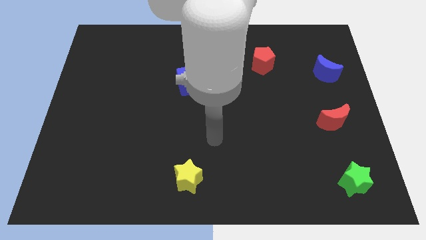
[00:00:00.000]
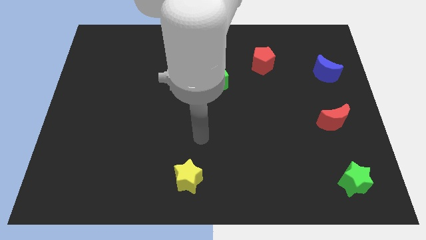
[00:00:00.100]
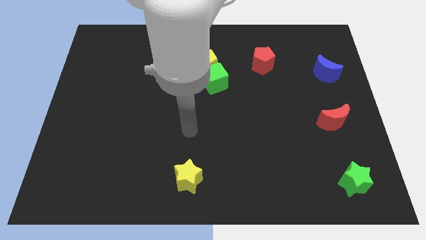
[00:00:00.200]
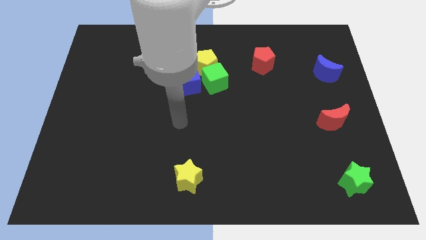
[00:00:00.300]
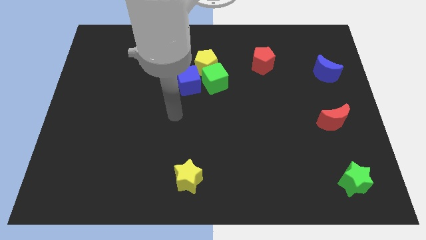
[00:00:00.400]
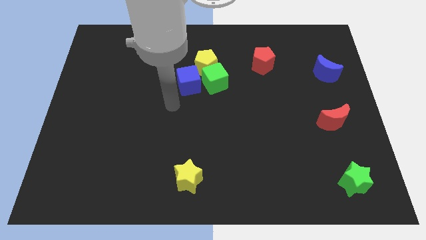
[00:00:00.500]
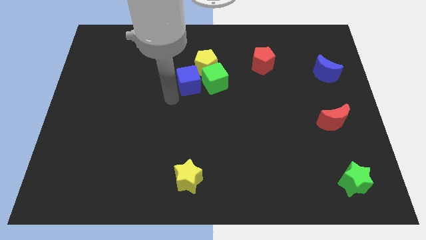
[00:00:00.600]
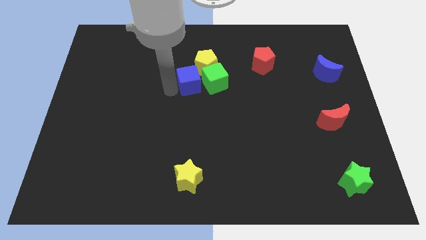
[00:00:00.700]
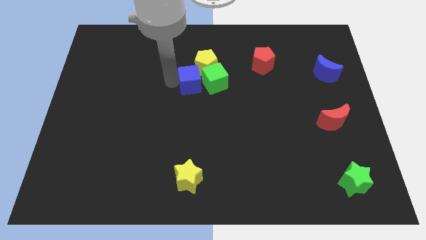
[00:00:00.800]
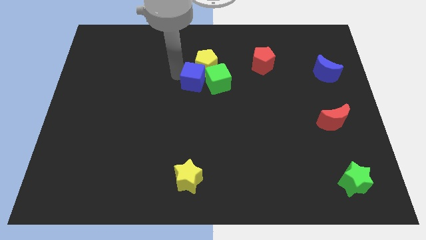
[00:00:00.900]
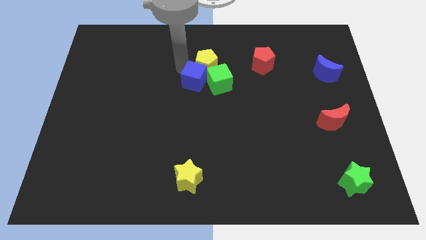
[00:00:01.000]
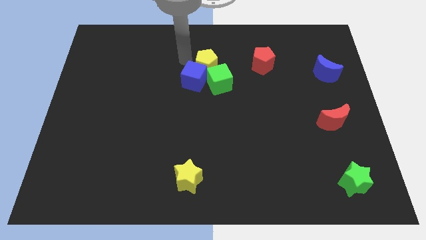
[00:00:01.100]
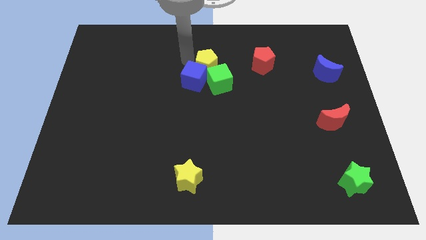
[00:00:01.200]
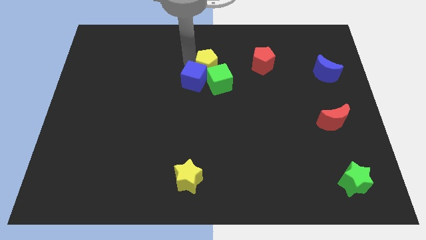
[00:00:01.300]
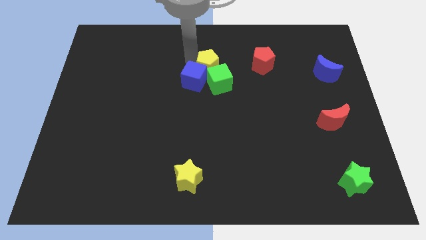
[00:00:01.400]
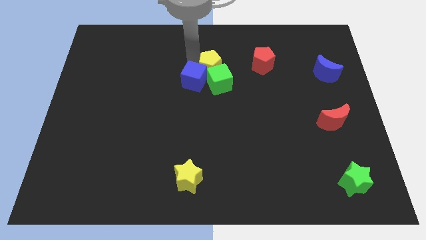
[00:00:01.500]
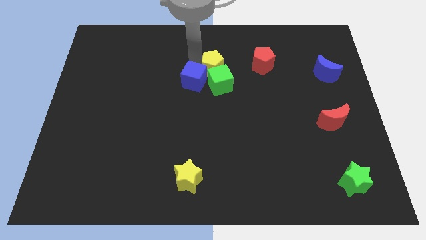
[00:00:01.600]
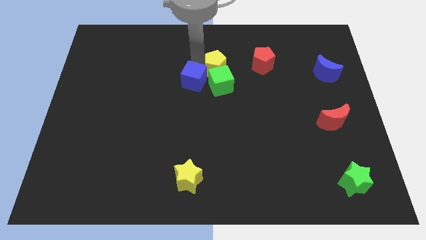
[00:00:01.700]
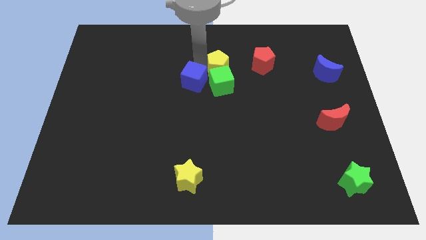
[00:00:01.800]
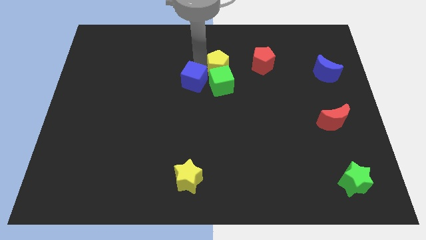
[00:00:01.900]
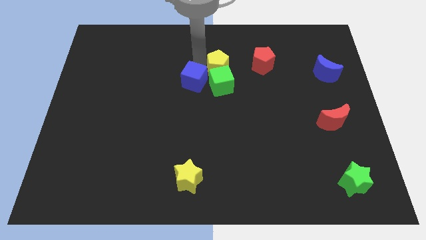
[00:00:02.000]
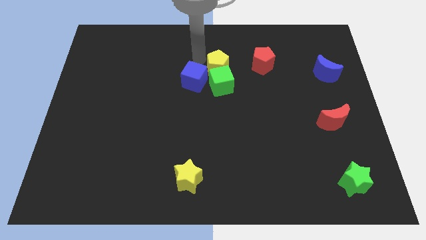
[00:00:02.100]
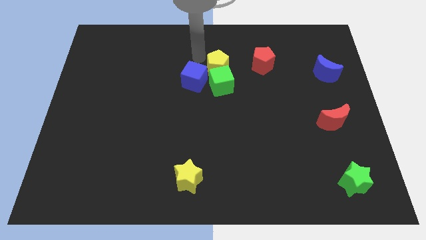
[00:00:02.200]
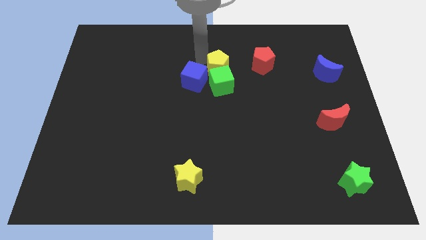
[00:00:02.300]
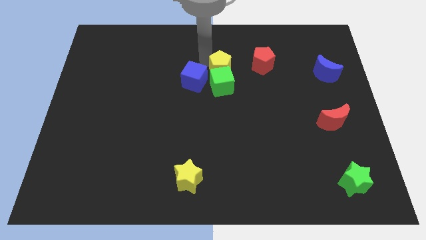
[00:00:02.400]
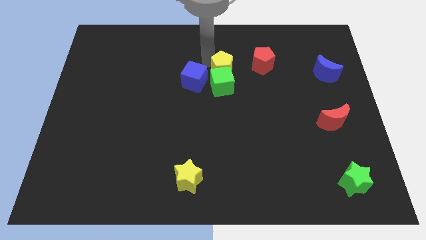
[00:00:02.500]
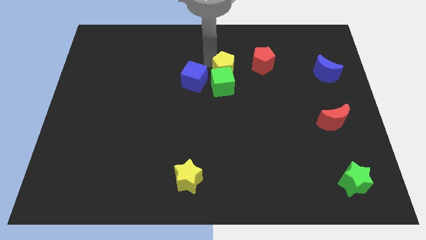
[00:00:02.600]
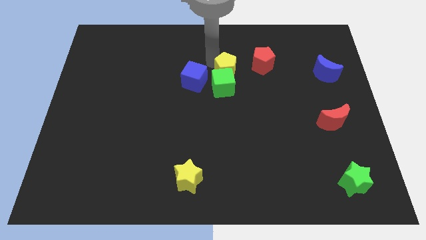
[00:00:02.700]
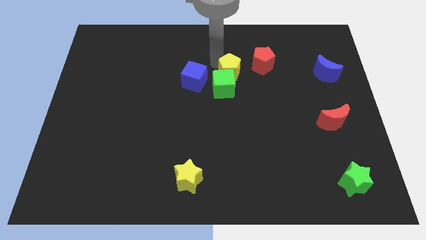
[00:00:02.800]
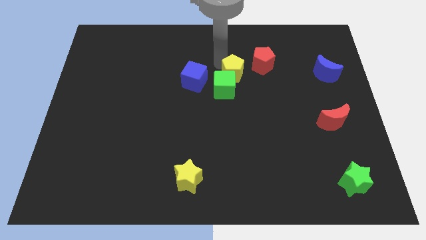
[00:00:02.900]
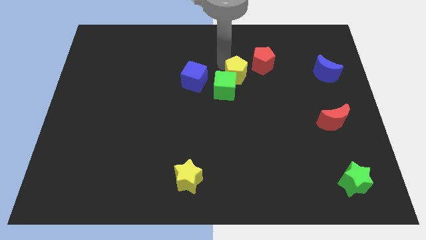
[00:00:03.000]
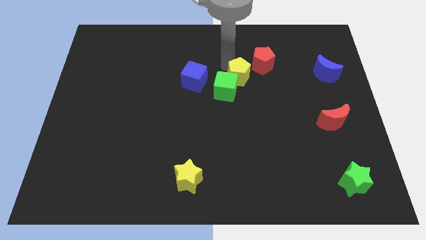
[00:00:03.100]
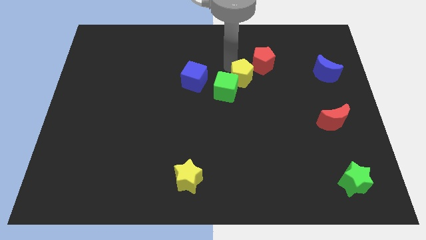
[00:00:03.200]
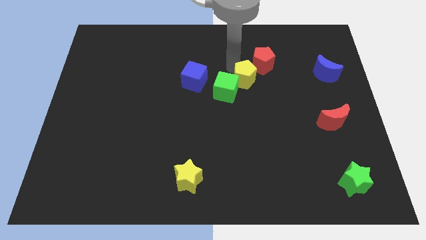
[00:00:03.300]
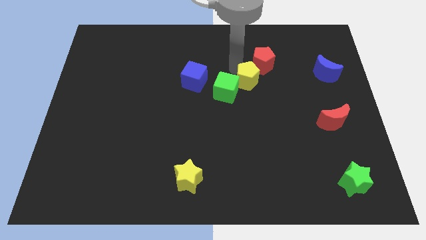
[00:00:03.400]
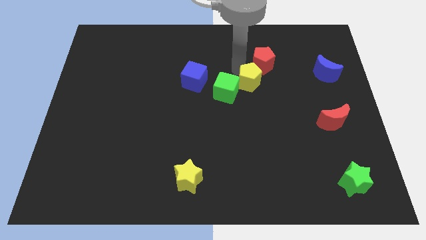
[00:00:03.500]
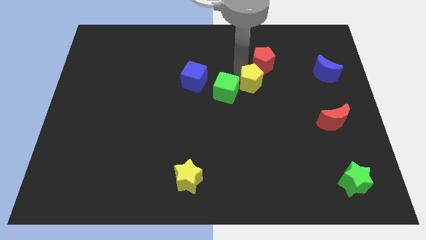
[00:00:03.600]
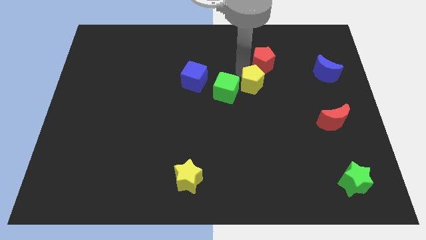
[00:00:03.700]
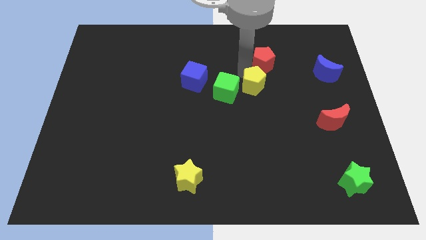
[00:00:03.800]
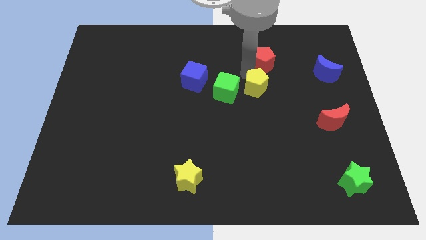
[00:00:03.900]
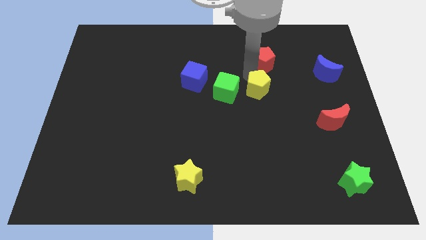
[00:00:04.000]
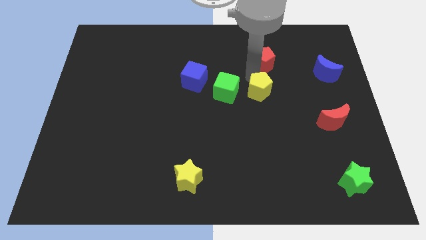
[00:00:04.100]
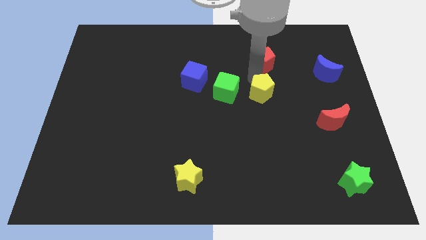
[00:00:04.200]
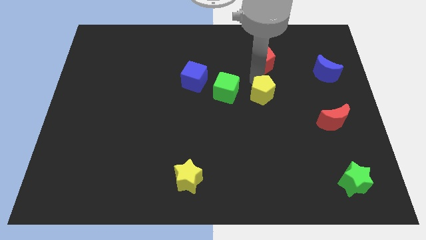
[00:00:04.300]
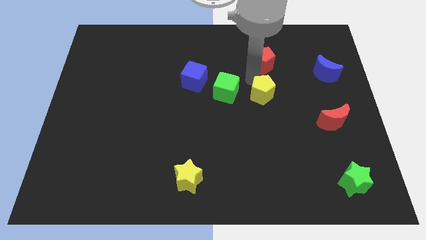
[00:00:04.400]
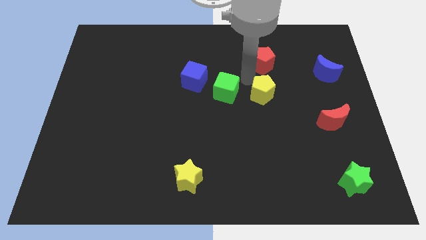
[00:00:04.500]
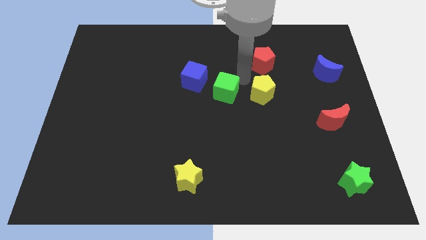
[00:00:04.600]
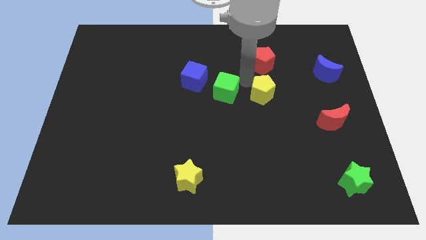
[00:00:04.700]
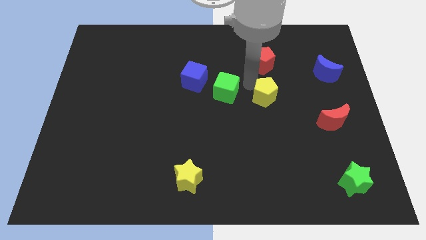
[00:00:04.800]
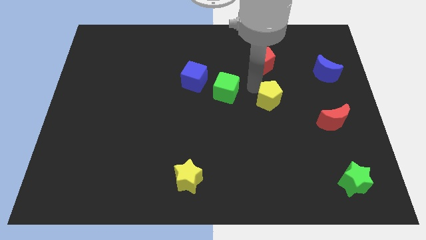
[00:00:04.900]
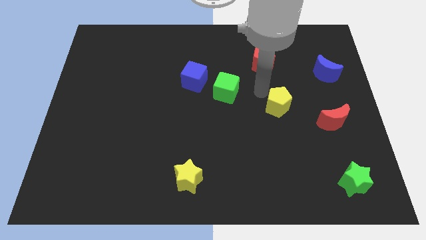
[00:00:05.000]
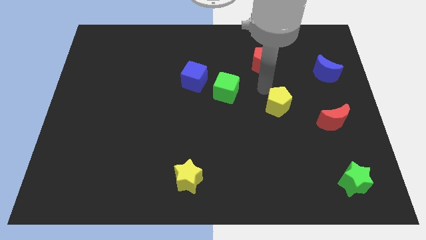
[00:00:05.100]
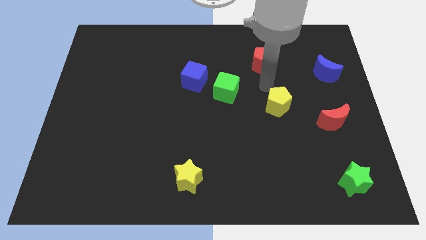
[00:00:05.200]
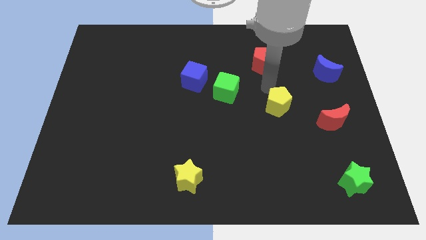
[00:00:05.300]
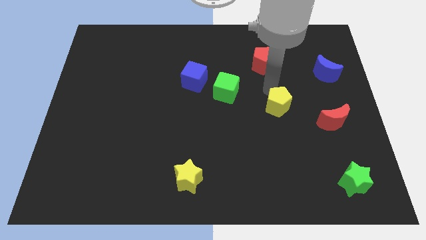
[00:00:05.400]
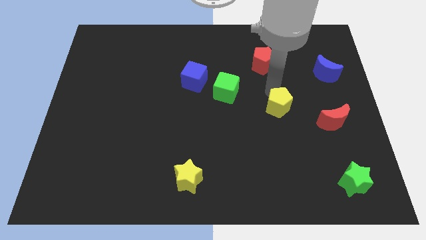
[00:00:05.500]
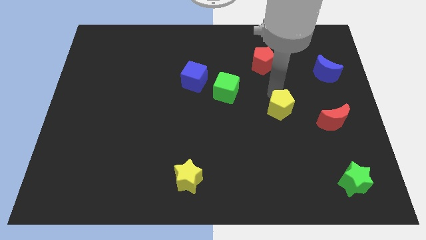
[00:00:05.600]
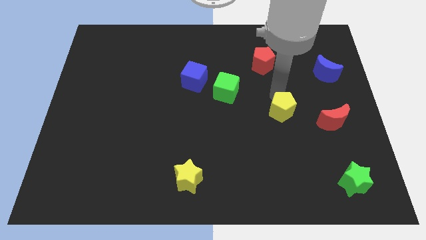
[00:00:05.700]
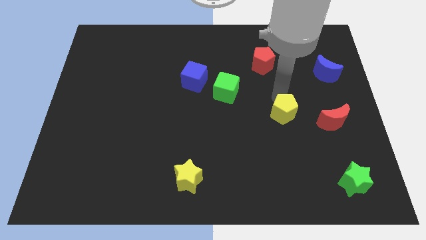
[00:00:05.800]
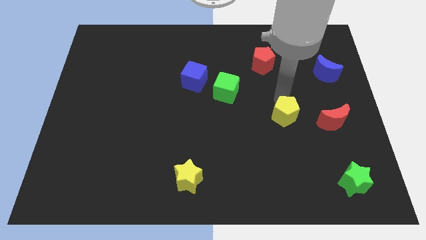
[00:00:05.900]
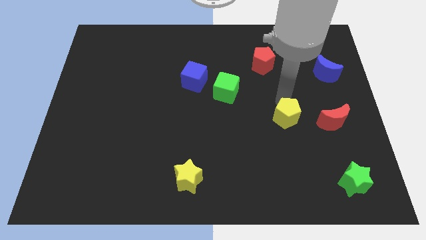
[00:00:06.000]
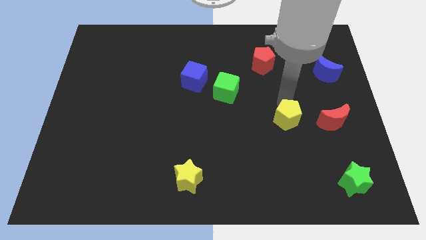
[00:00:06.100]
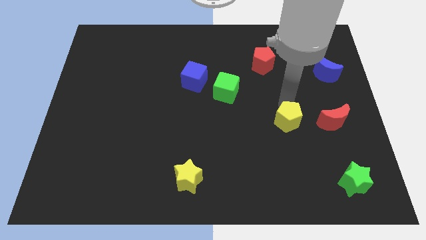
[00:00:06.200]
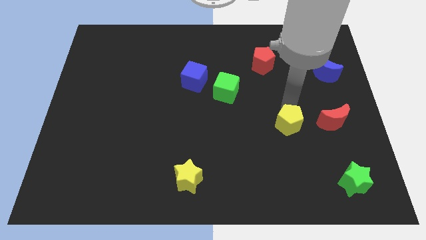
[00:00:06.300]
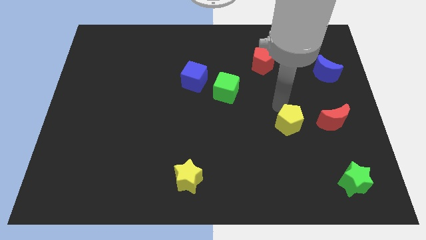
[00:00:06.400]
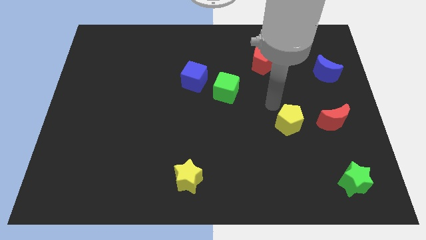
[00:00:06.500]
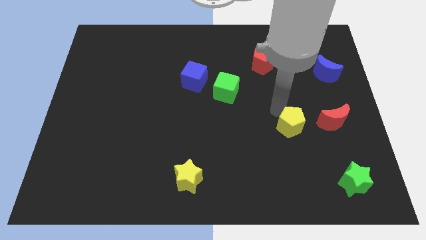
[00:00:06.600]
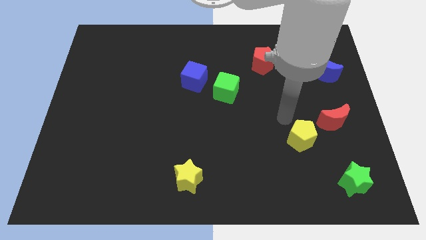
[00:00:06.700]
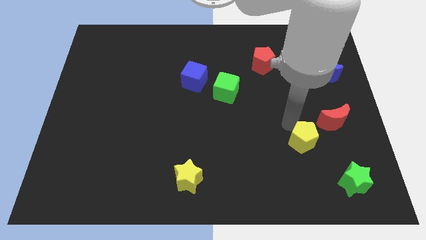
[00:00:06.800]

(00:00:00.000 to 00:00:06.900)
put the yellow pentagon diagonally up and to the left of the green star

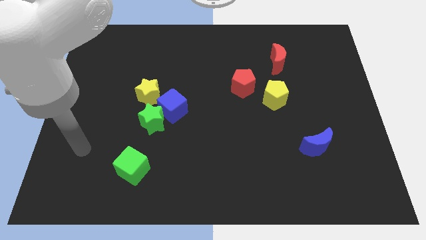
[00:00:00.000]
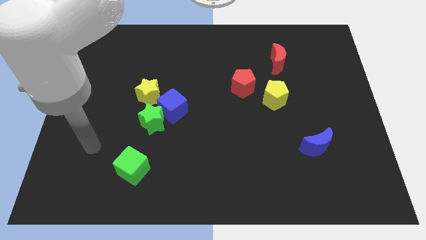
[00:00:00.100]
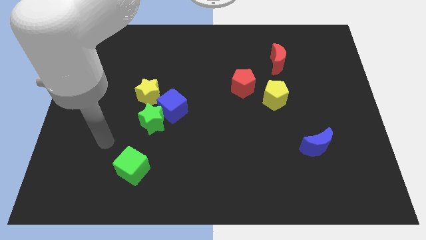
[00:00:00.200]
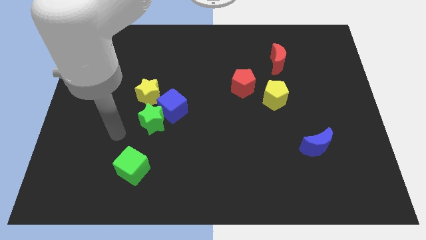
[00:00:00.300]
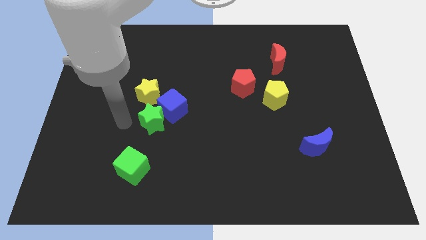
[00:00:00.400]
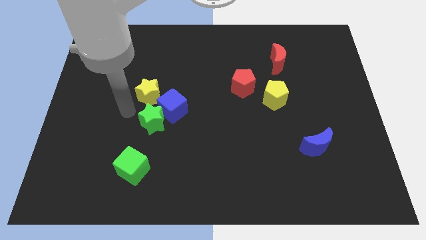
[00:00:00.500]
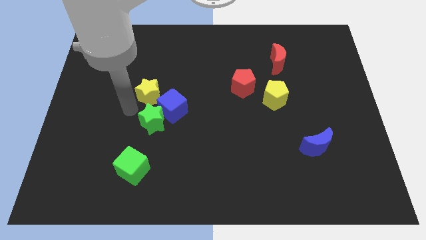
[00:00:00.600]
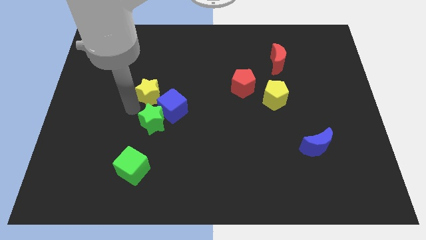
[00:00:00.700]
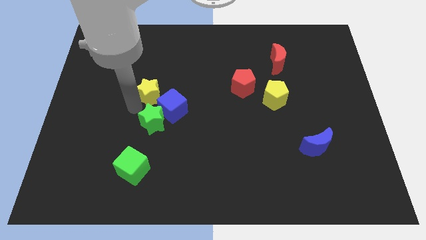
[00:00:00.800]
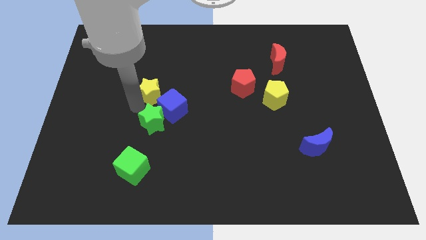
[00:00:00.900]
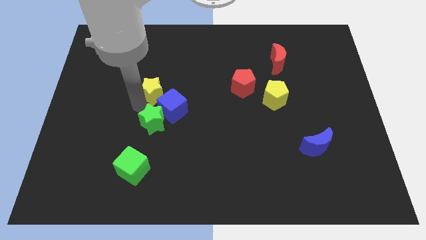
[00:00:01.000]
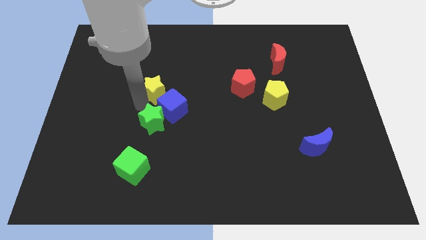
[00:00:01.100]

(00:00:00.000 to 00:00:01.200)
move the yellow star above the blue cube
